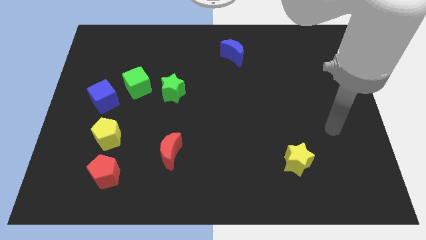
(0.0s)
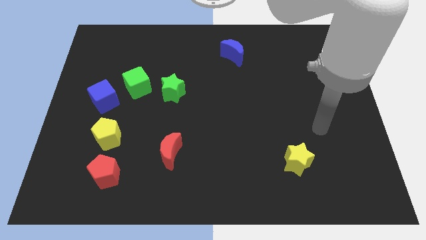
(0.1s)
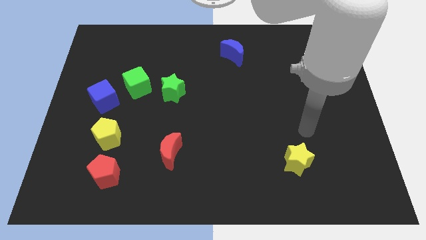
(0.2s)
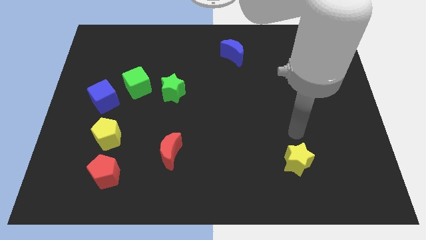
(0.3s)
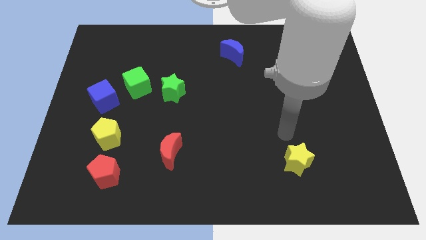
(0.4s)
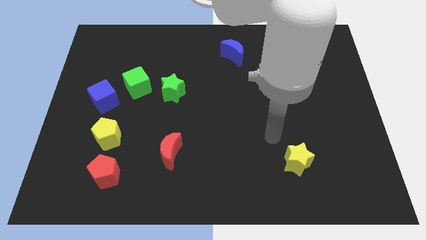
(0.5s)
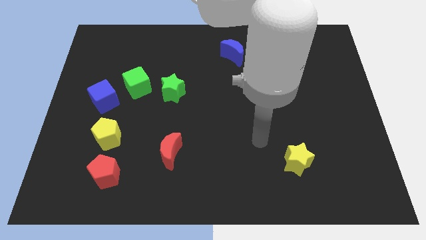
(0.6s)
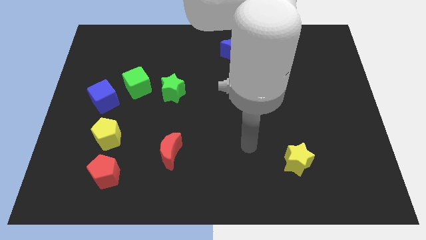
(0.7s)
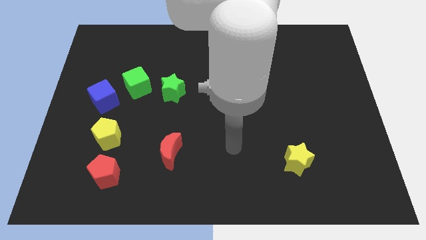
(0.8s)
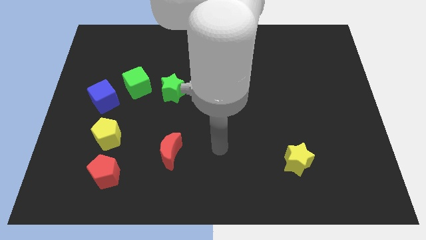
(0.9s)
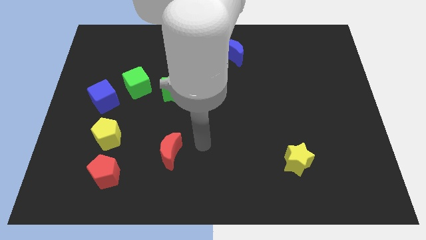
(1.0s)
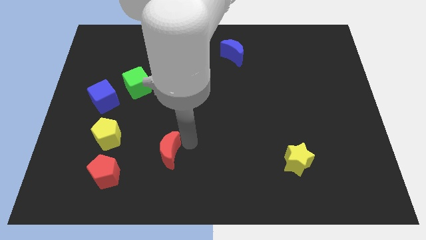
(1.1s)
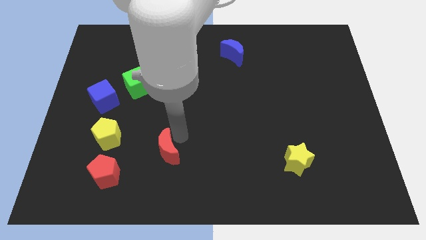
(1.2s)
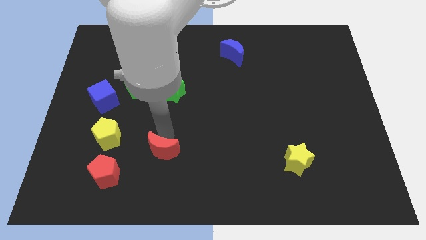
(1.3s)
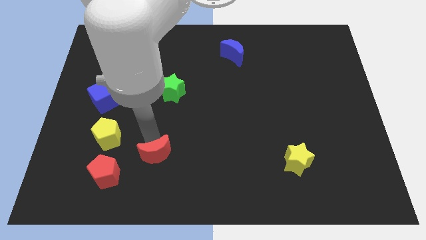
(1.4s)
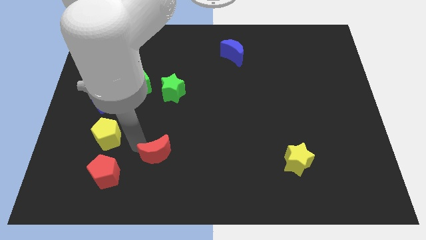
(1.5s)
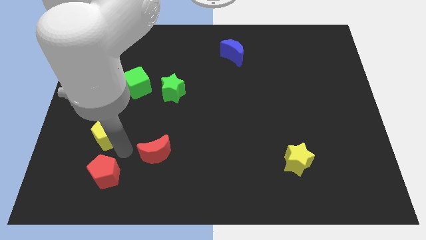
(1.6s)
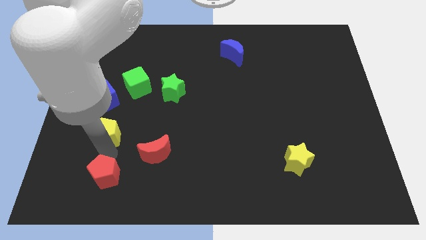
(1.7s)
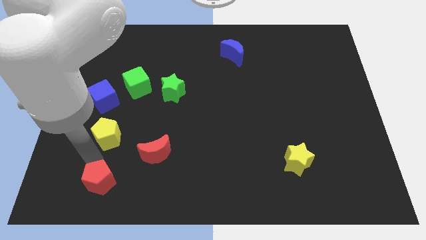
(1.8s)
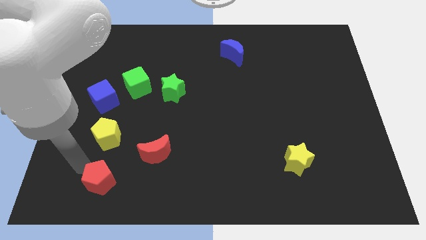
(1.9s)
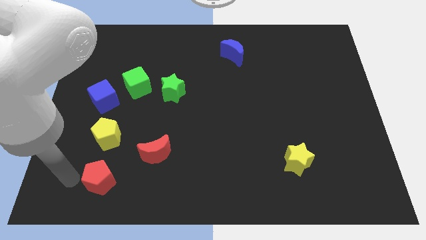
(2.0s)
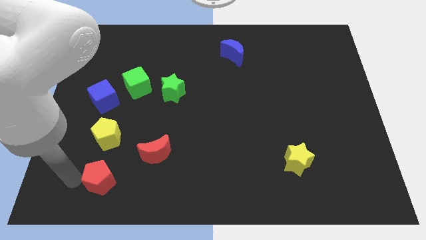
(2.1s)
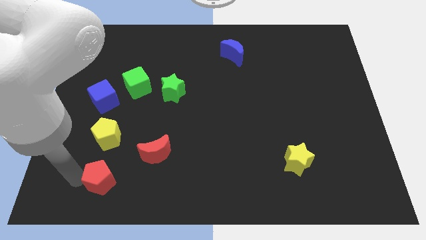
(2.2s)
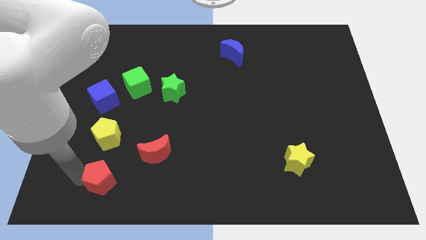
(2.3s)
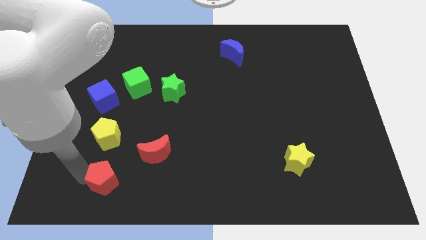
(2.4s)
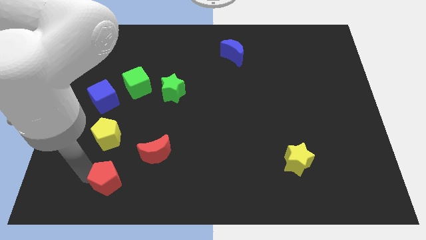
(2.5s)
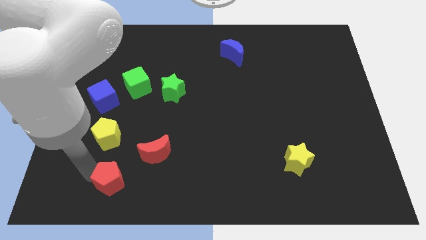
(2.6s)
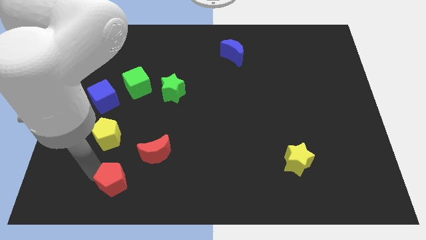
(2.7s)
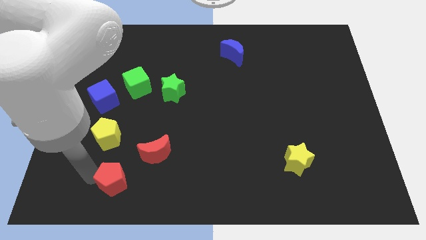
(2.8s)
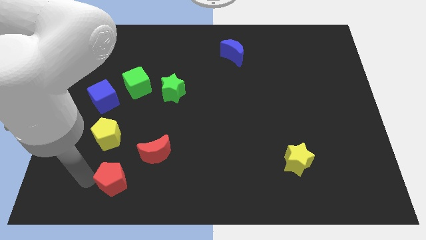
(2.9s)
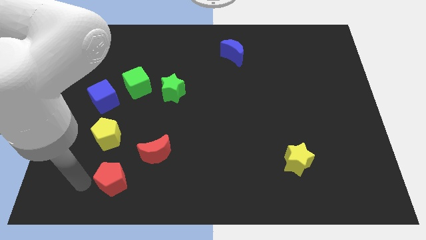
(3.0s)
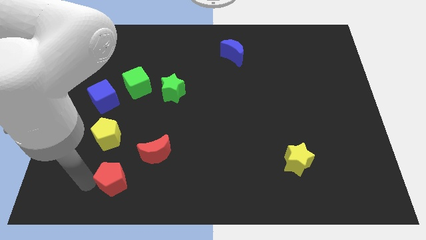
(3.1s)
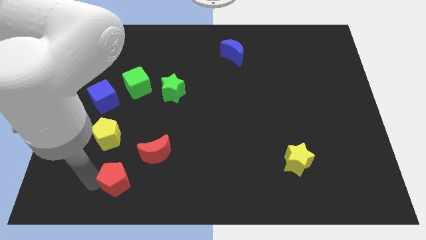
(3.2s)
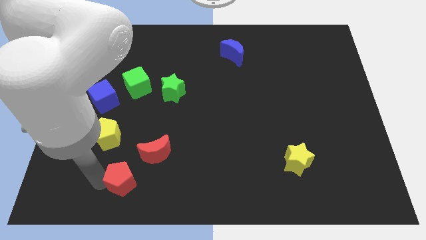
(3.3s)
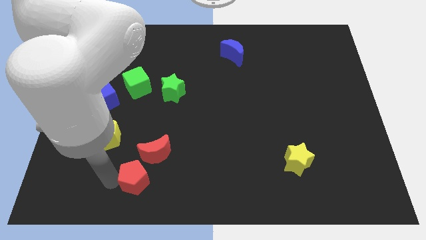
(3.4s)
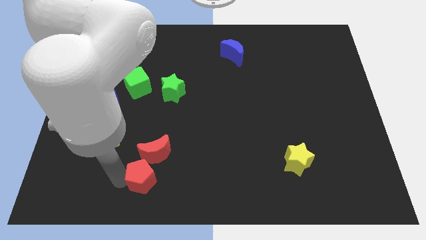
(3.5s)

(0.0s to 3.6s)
move the red pentagon slightly to the right

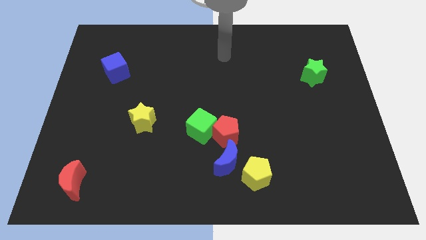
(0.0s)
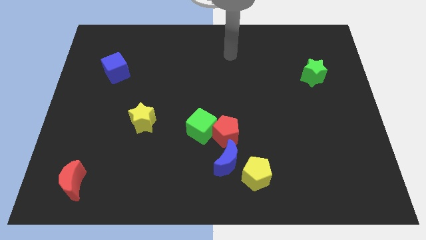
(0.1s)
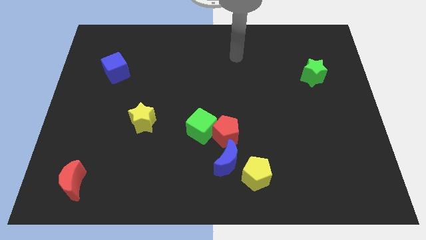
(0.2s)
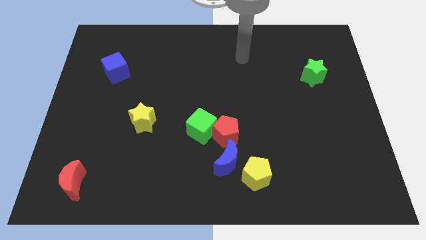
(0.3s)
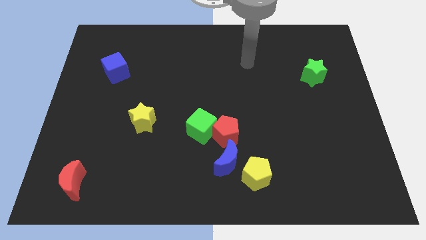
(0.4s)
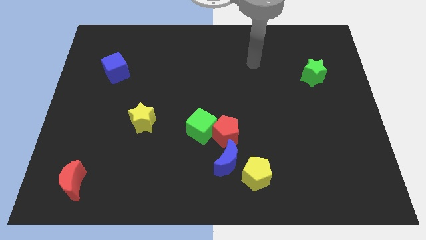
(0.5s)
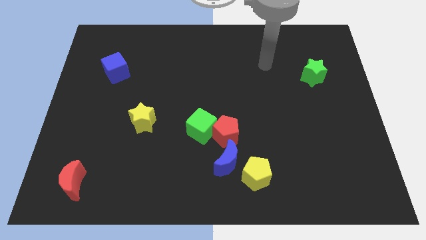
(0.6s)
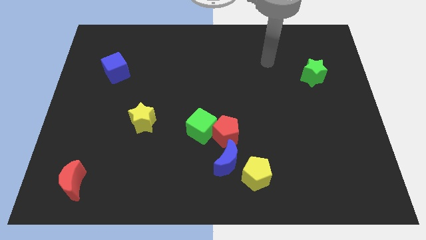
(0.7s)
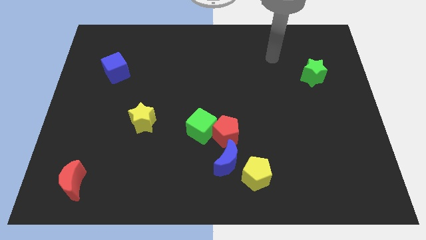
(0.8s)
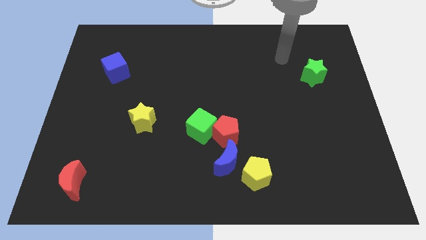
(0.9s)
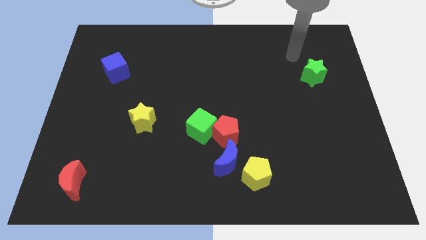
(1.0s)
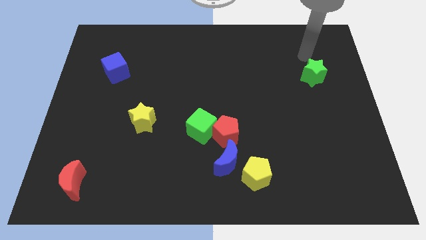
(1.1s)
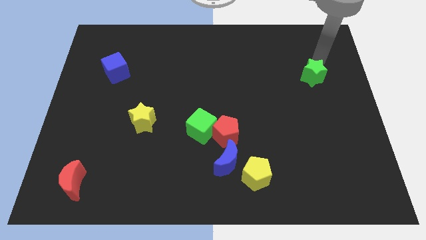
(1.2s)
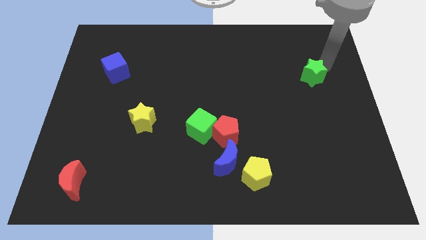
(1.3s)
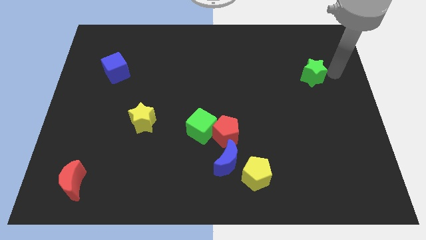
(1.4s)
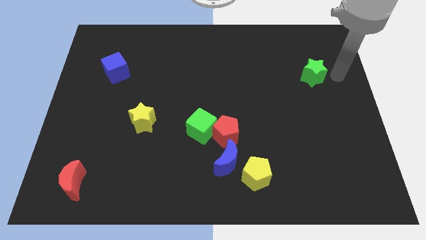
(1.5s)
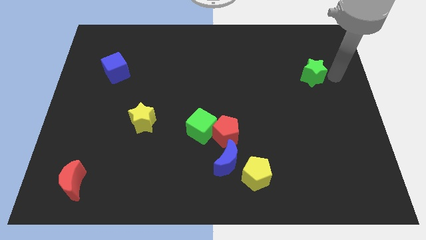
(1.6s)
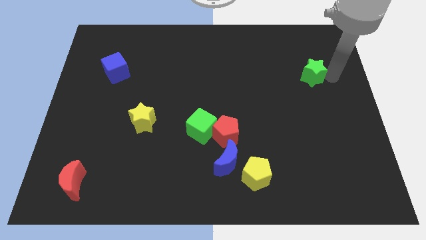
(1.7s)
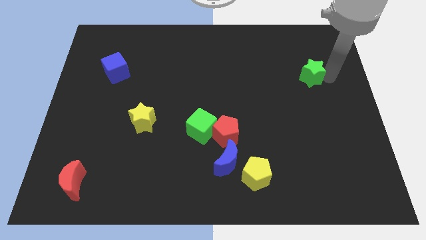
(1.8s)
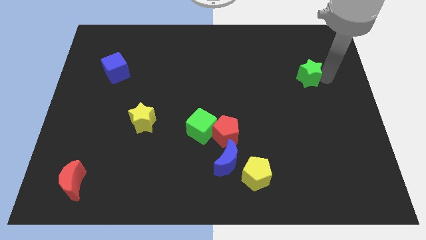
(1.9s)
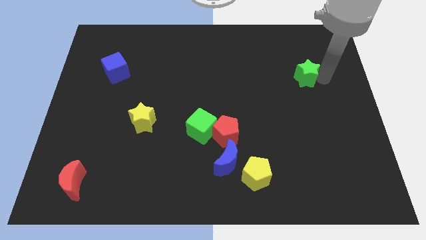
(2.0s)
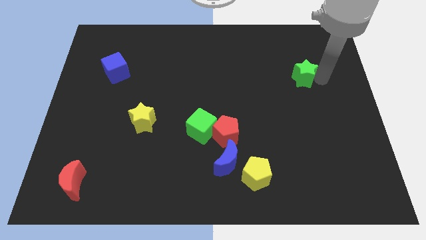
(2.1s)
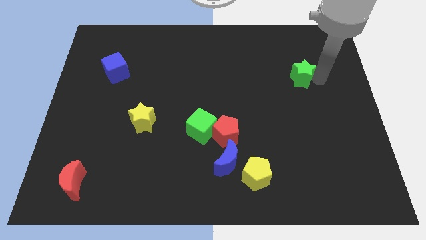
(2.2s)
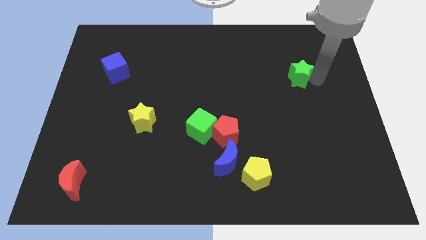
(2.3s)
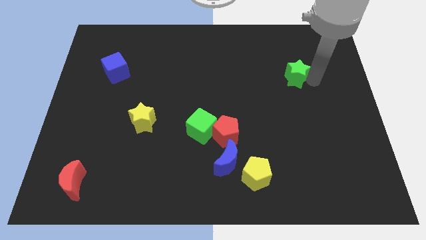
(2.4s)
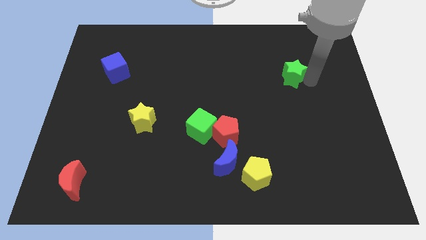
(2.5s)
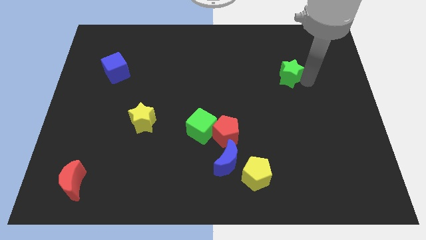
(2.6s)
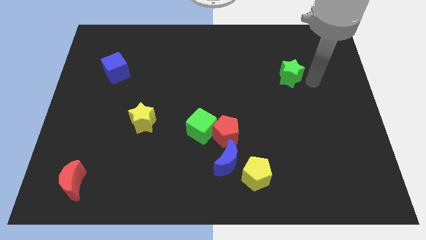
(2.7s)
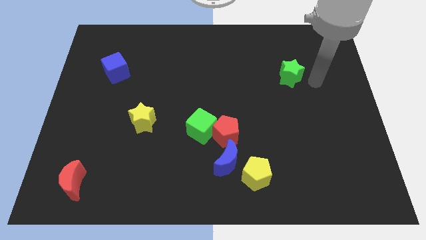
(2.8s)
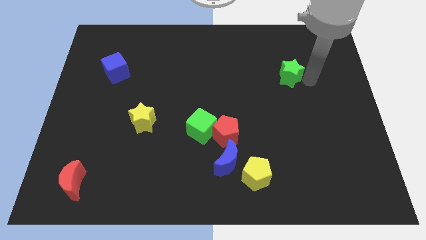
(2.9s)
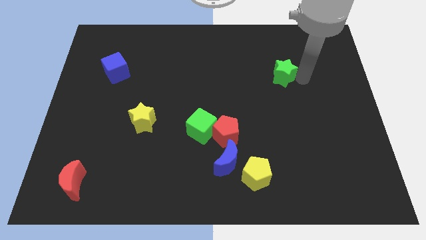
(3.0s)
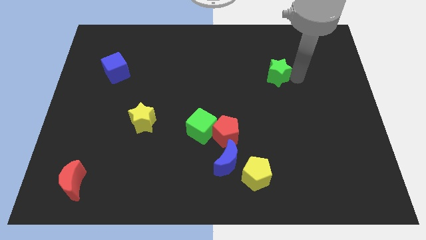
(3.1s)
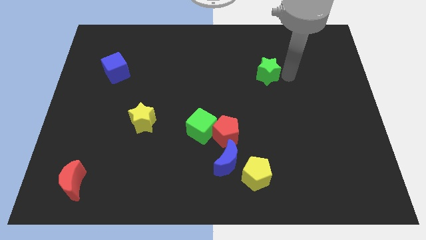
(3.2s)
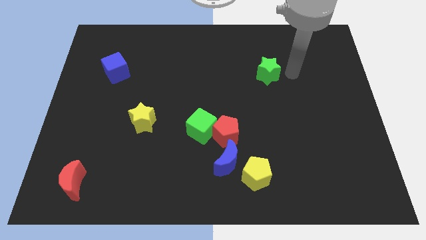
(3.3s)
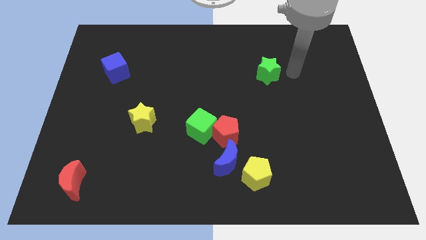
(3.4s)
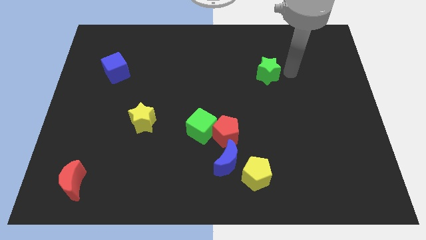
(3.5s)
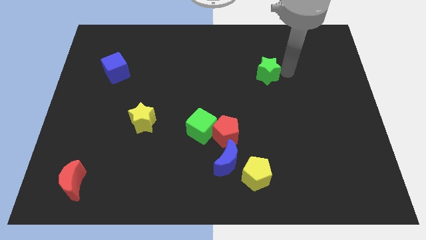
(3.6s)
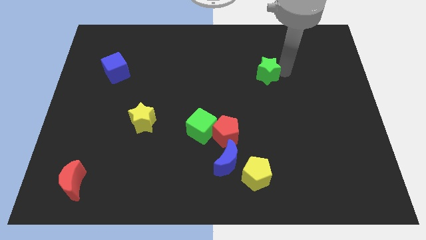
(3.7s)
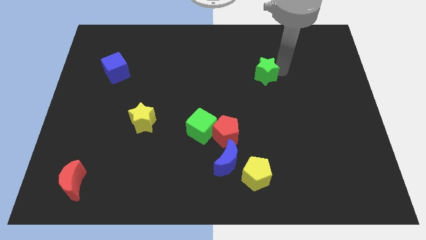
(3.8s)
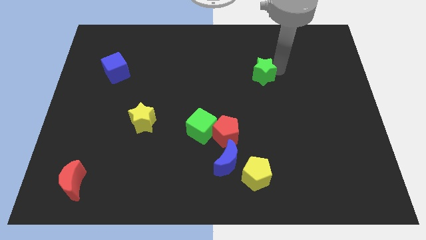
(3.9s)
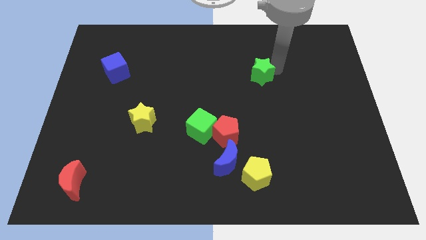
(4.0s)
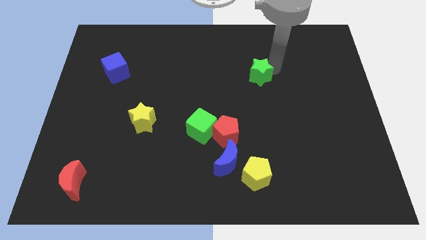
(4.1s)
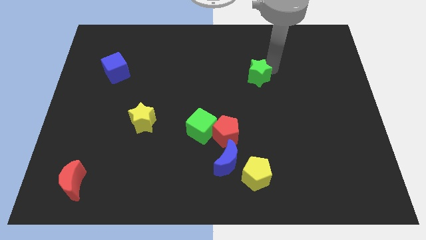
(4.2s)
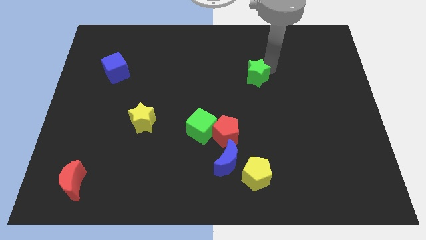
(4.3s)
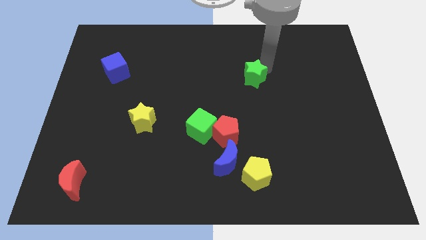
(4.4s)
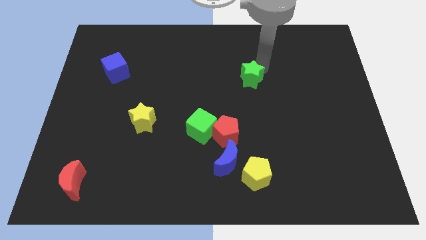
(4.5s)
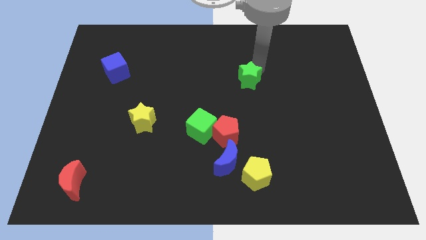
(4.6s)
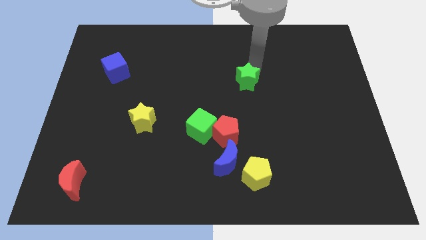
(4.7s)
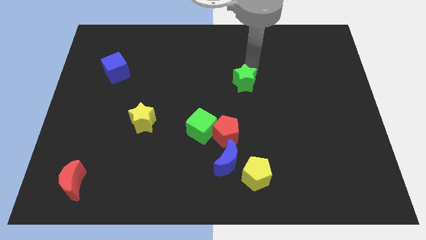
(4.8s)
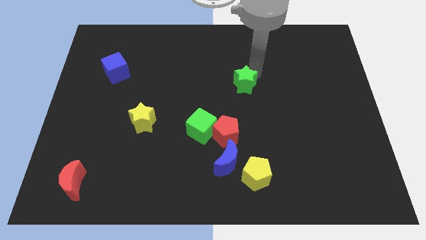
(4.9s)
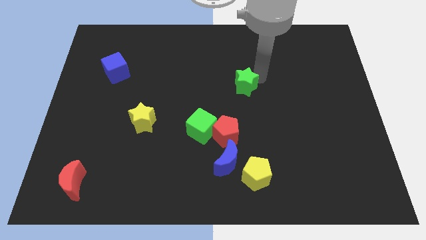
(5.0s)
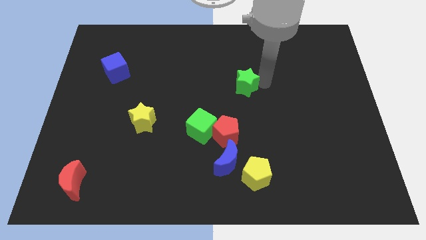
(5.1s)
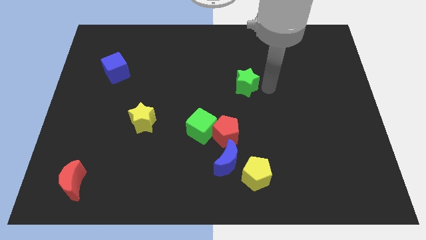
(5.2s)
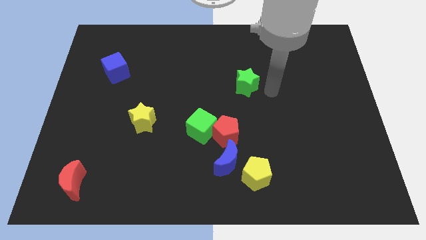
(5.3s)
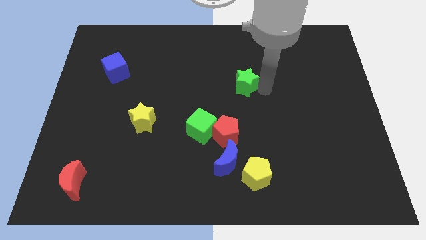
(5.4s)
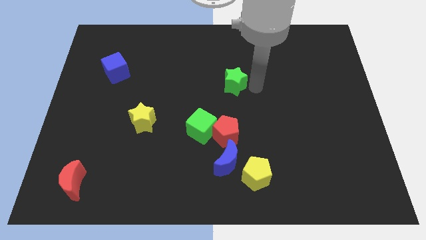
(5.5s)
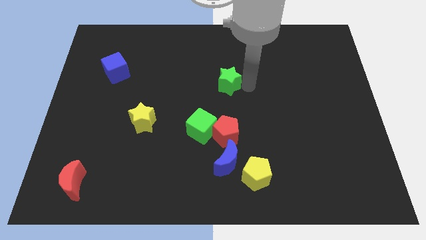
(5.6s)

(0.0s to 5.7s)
push the green star left
